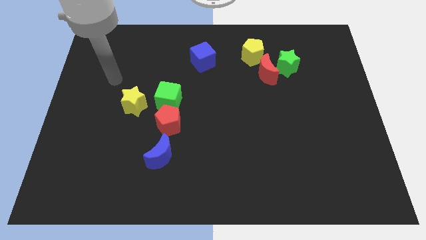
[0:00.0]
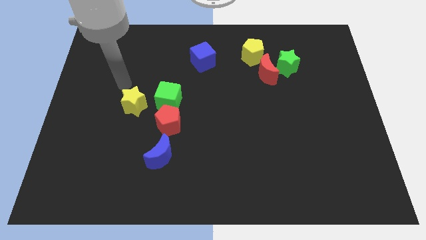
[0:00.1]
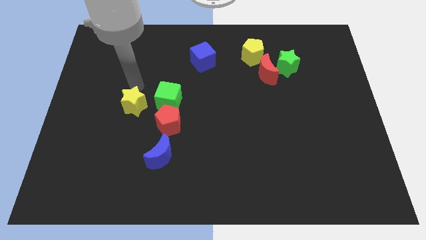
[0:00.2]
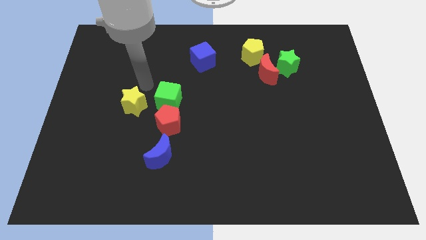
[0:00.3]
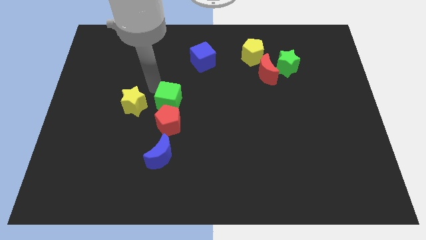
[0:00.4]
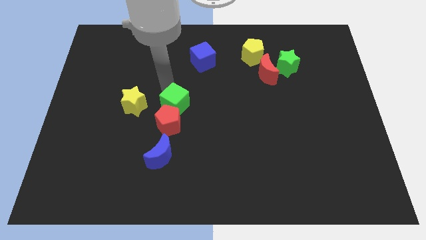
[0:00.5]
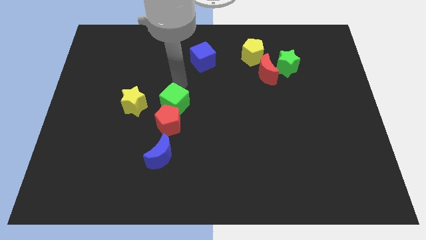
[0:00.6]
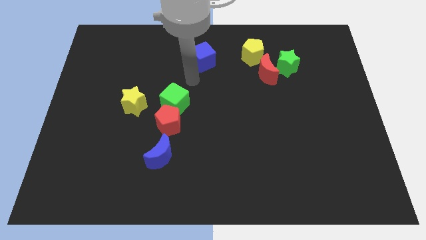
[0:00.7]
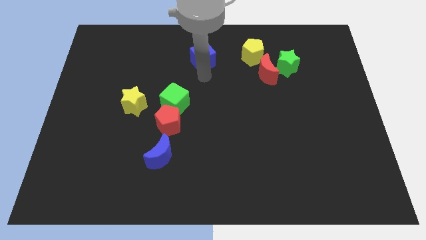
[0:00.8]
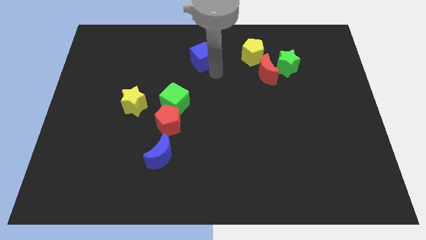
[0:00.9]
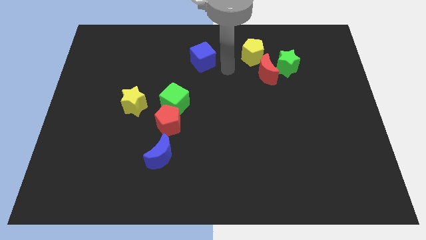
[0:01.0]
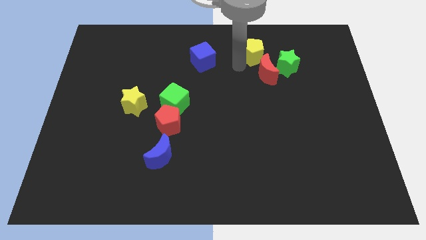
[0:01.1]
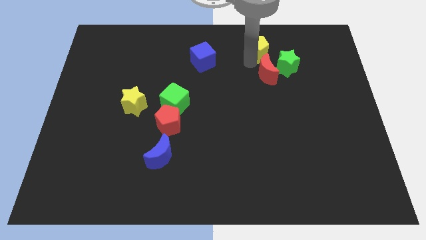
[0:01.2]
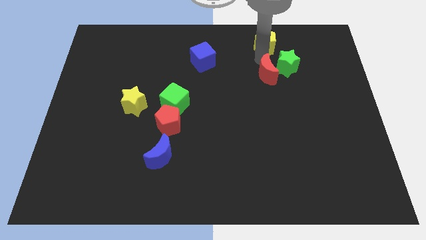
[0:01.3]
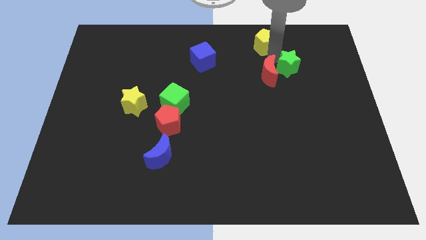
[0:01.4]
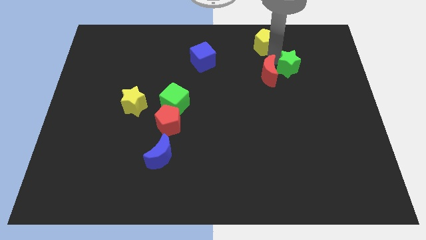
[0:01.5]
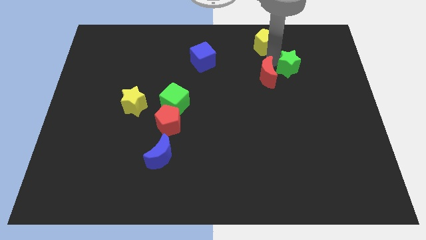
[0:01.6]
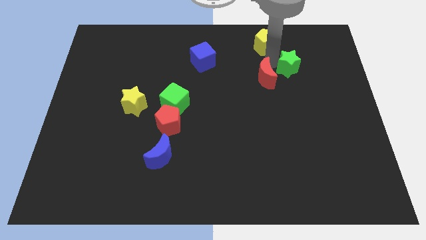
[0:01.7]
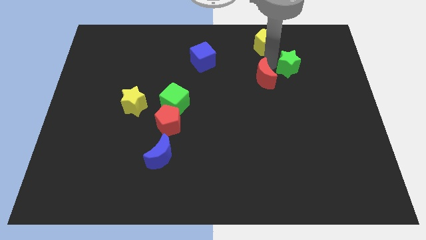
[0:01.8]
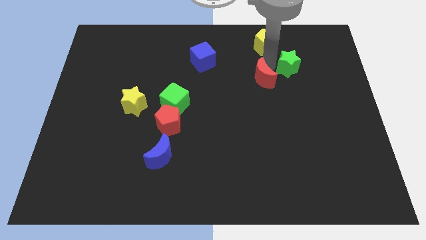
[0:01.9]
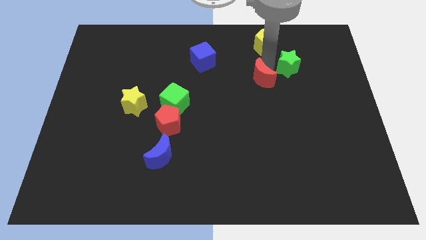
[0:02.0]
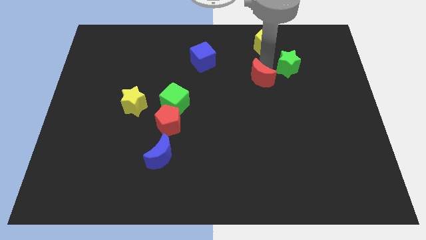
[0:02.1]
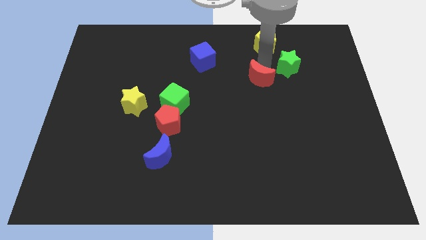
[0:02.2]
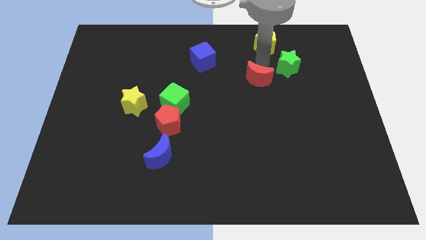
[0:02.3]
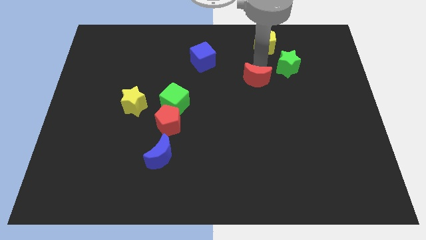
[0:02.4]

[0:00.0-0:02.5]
separate the red moon from the green star and yellow pentagon

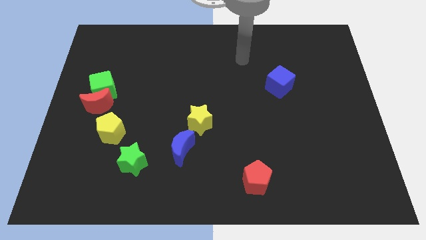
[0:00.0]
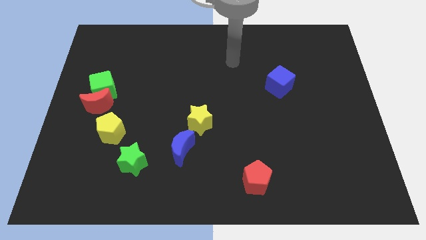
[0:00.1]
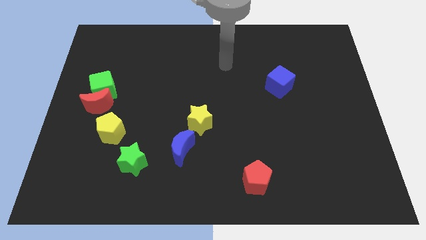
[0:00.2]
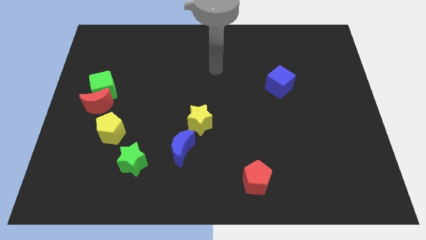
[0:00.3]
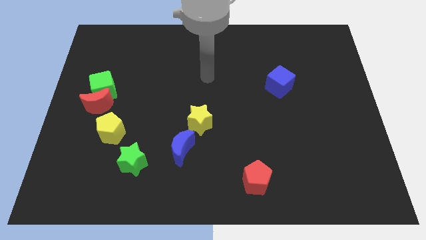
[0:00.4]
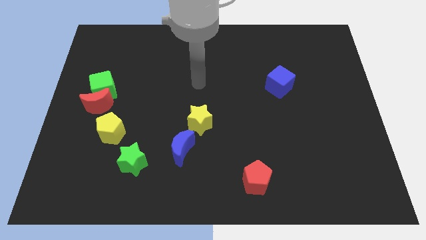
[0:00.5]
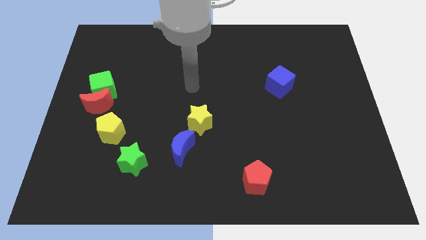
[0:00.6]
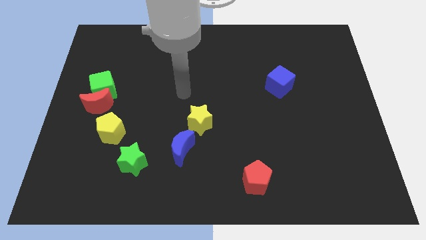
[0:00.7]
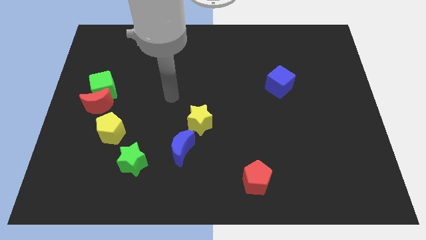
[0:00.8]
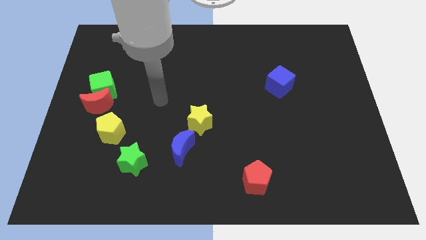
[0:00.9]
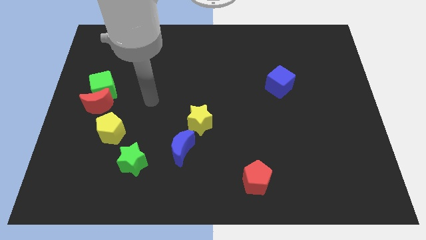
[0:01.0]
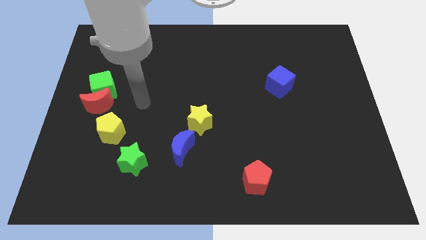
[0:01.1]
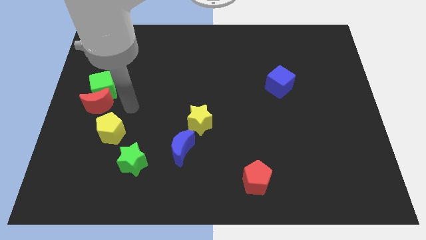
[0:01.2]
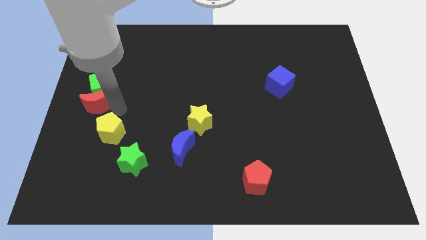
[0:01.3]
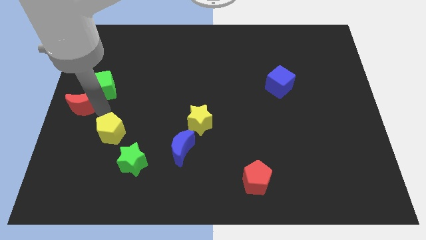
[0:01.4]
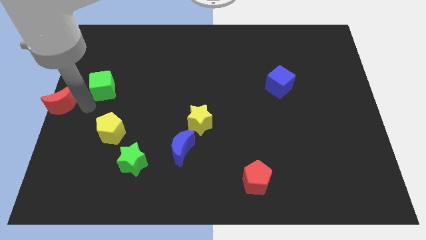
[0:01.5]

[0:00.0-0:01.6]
separate the green cube from the red moon

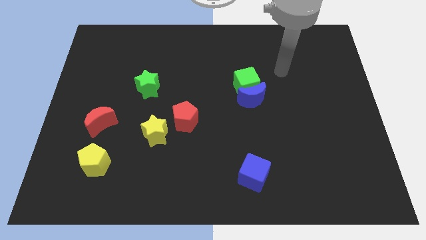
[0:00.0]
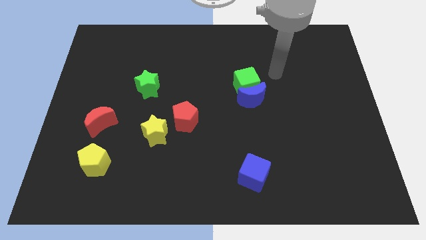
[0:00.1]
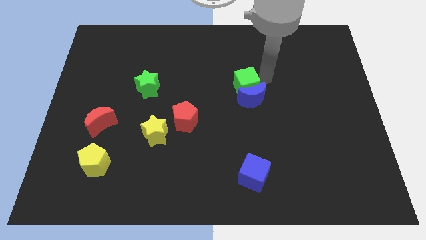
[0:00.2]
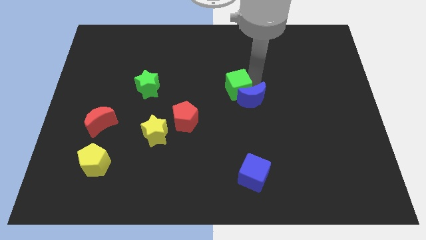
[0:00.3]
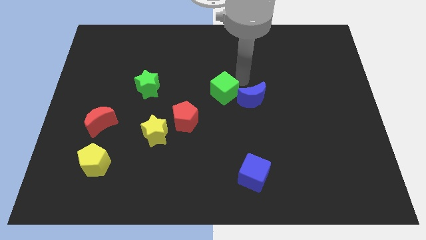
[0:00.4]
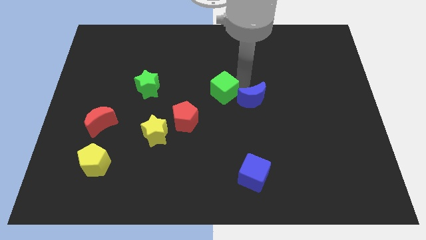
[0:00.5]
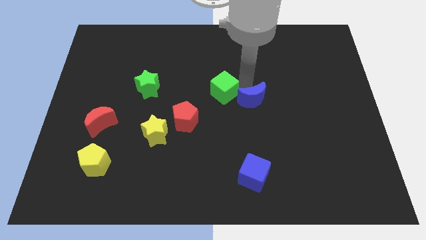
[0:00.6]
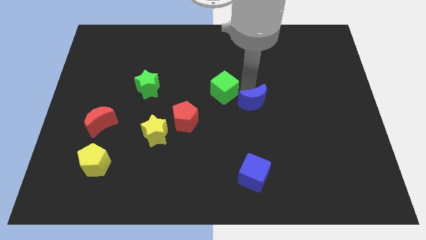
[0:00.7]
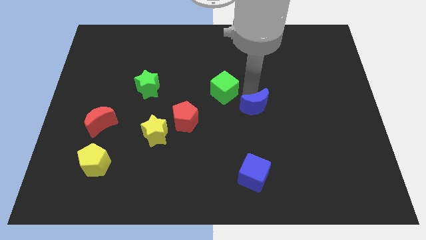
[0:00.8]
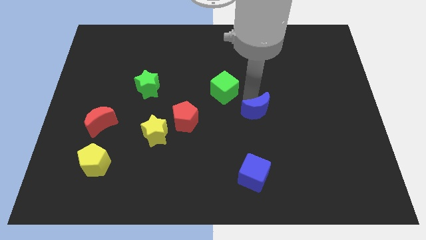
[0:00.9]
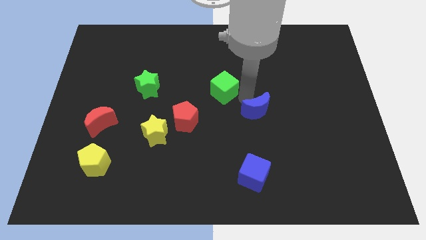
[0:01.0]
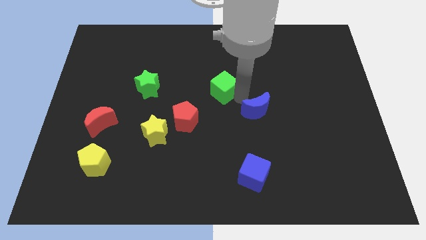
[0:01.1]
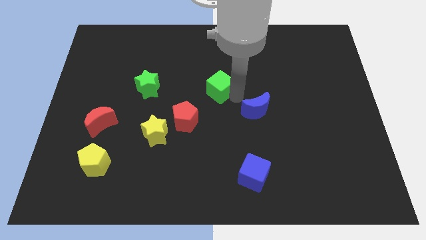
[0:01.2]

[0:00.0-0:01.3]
pull the blue moon apart from the green cube

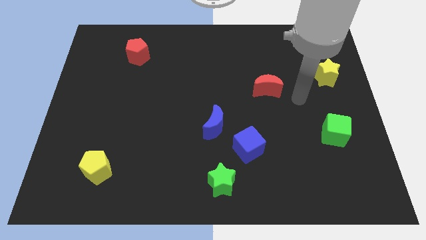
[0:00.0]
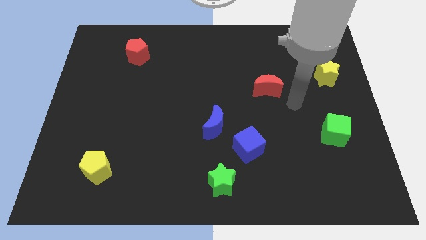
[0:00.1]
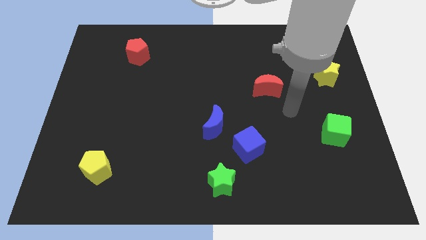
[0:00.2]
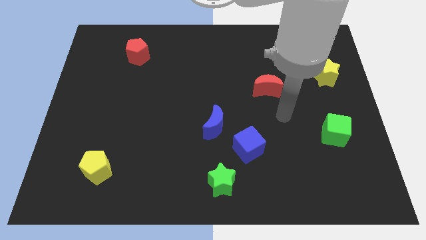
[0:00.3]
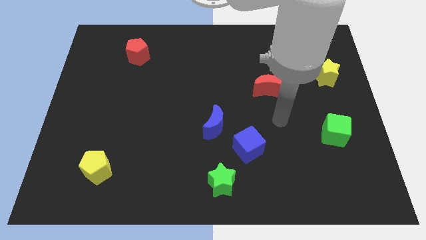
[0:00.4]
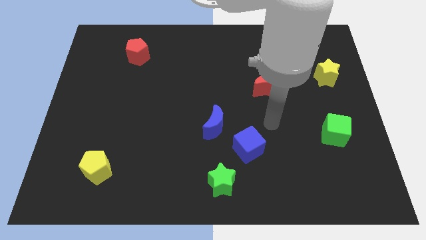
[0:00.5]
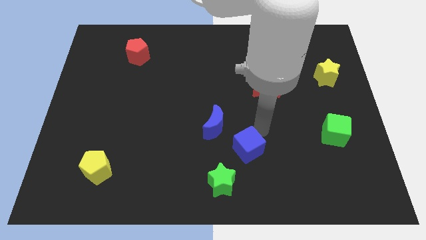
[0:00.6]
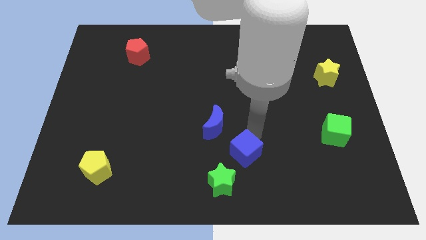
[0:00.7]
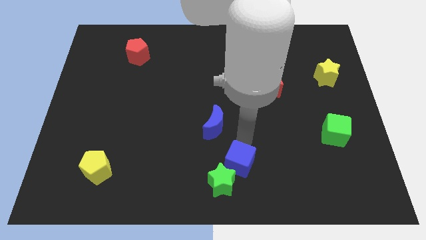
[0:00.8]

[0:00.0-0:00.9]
move the blue moon away from the blue cube

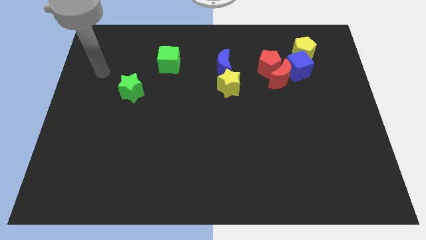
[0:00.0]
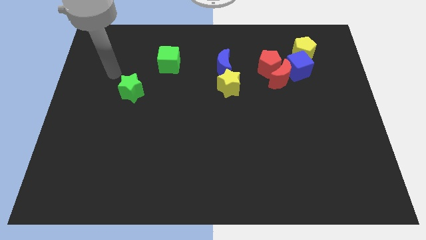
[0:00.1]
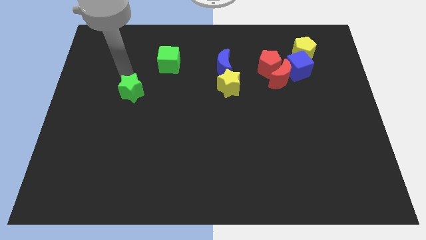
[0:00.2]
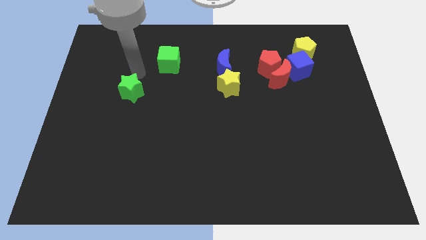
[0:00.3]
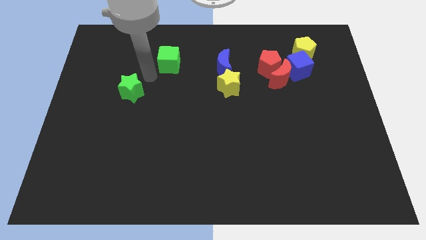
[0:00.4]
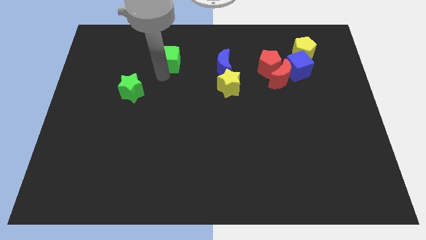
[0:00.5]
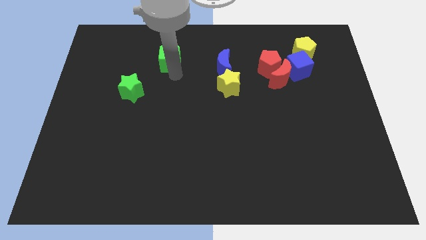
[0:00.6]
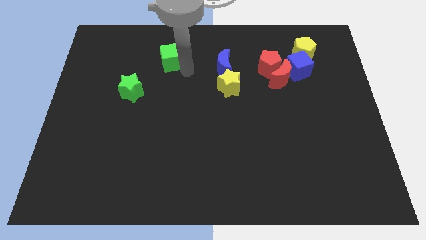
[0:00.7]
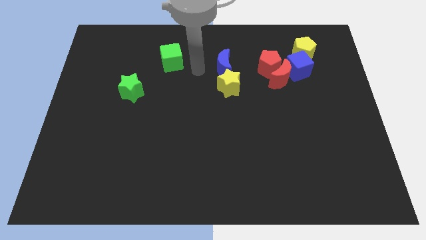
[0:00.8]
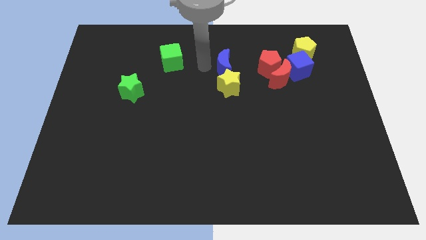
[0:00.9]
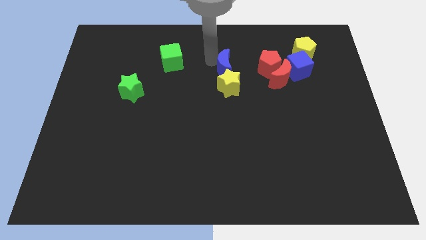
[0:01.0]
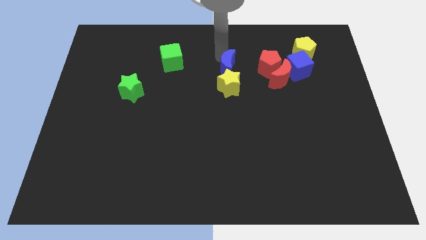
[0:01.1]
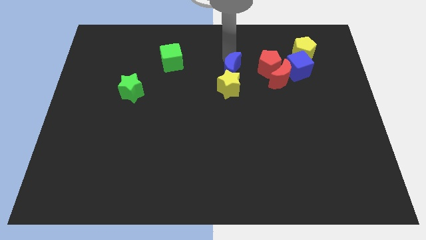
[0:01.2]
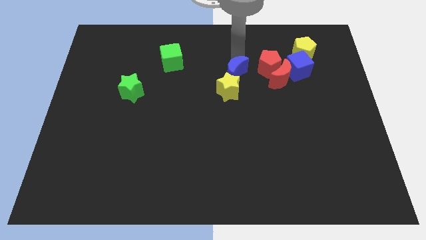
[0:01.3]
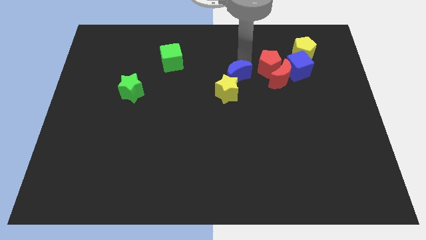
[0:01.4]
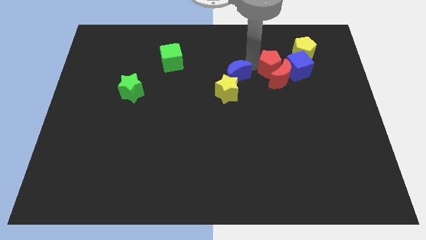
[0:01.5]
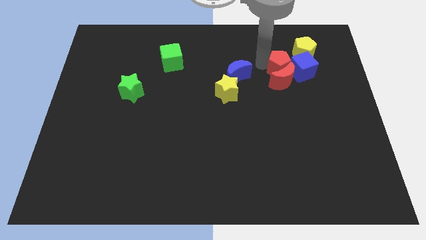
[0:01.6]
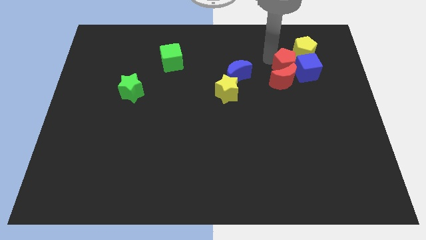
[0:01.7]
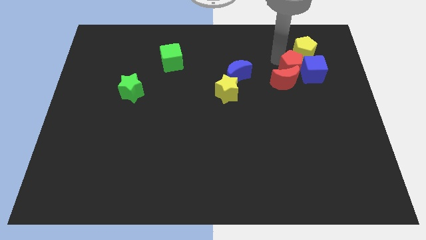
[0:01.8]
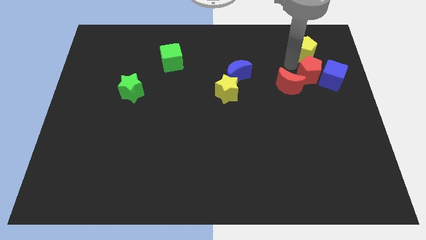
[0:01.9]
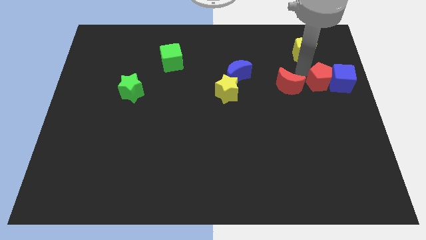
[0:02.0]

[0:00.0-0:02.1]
separate the red moon from the red pentagon and blue cube

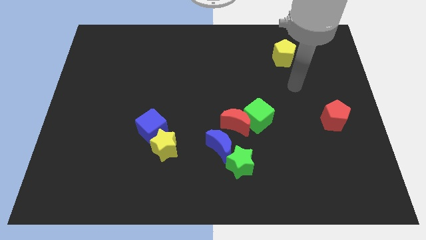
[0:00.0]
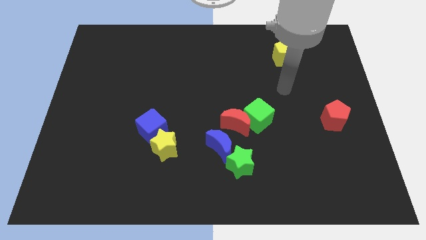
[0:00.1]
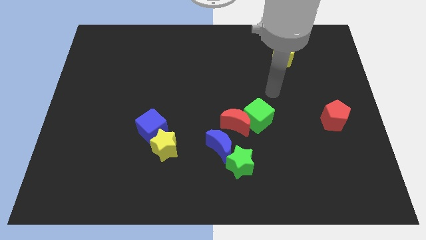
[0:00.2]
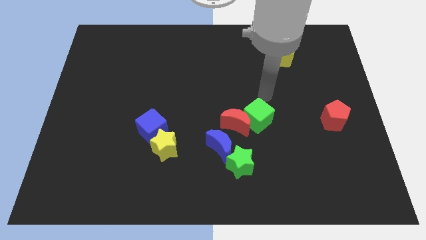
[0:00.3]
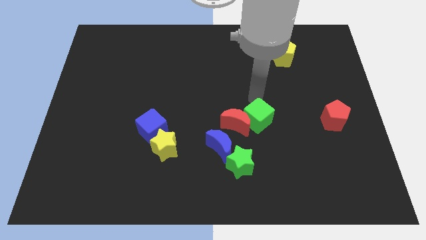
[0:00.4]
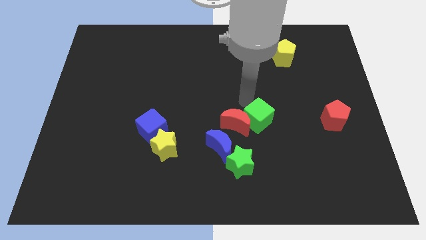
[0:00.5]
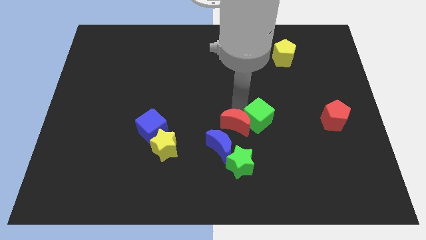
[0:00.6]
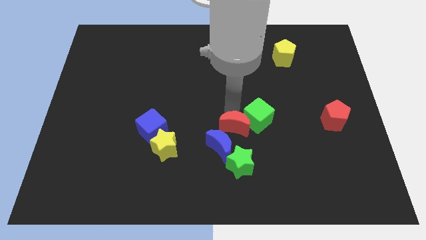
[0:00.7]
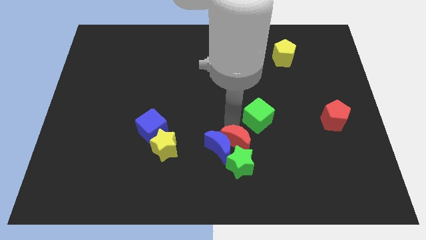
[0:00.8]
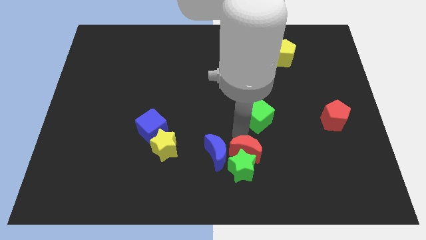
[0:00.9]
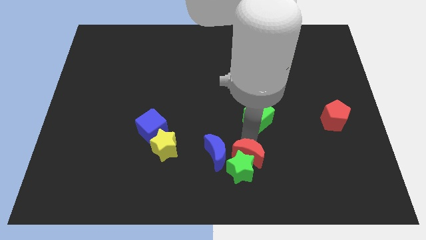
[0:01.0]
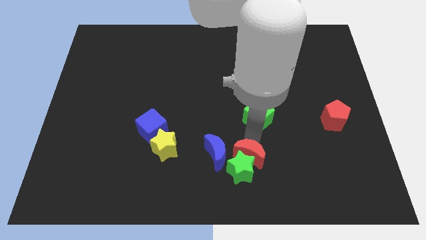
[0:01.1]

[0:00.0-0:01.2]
move the green cube away from the red moon
